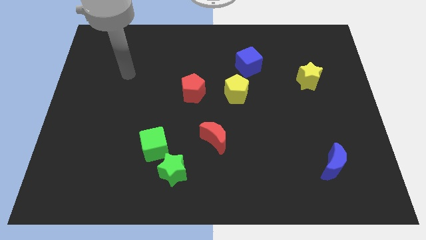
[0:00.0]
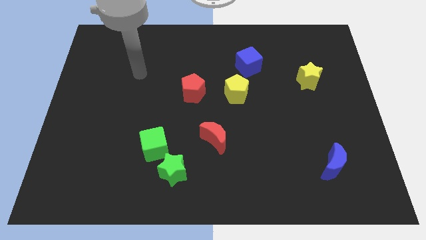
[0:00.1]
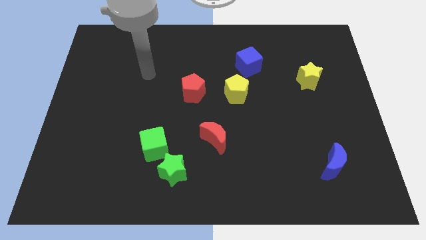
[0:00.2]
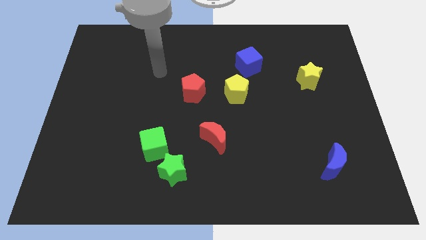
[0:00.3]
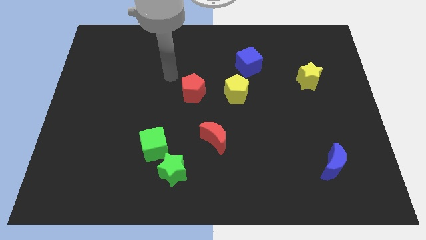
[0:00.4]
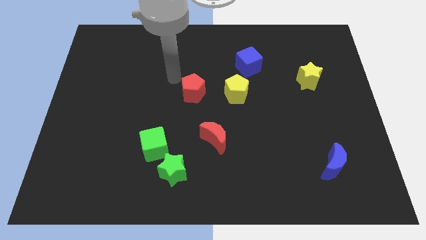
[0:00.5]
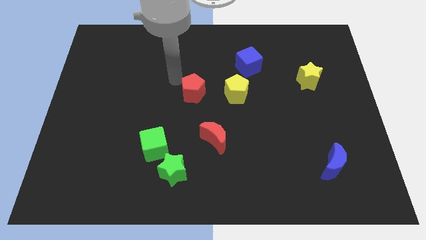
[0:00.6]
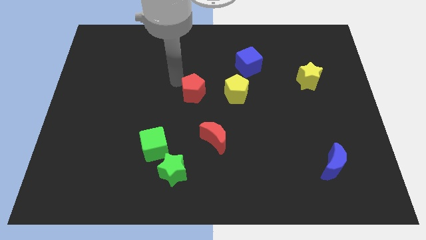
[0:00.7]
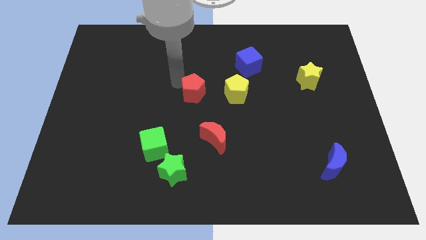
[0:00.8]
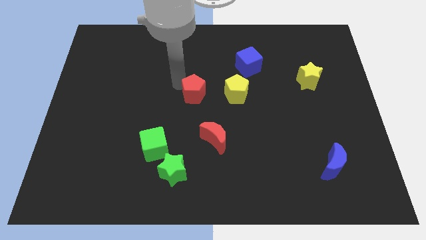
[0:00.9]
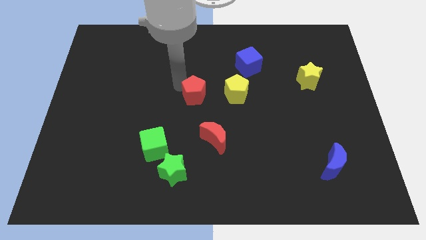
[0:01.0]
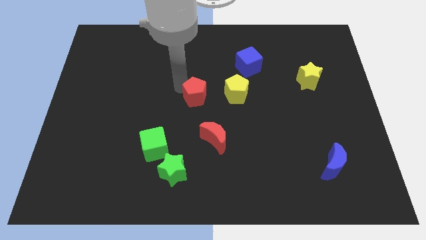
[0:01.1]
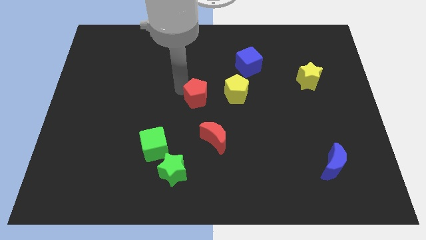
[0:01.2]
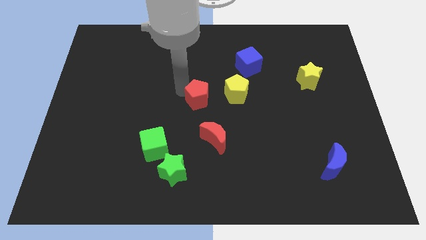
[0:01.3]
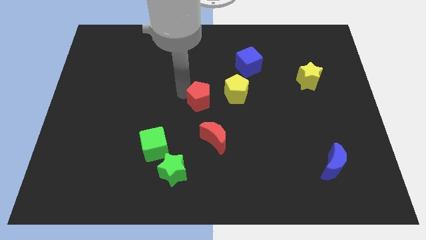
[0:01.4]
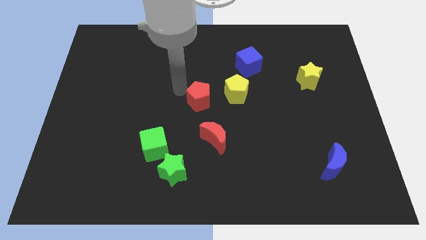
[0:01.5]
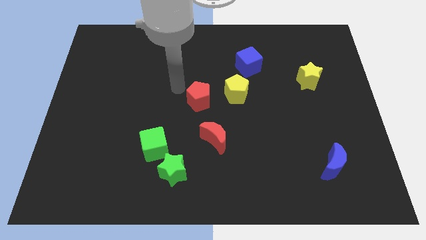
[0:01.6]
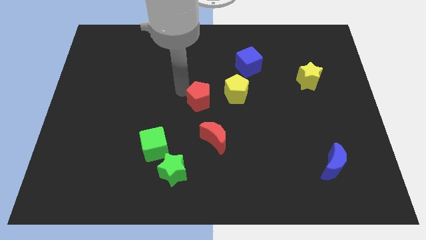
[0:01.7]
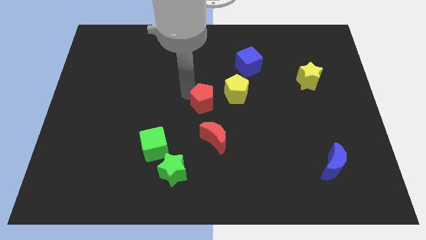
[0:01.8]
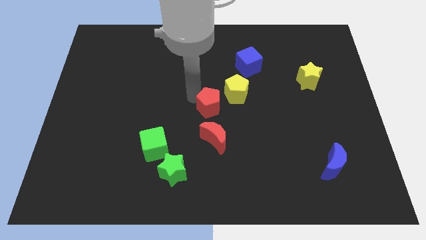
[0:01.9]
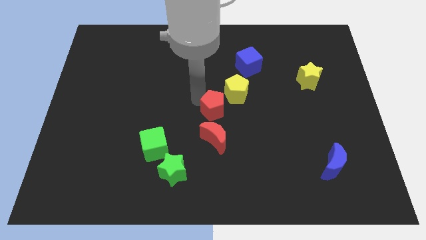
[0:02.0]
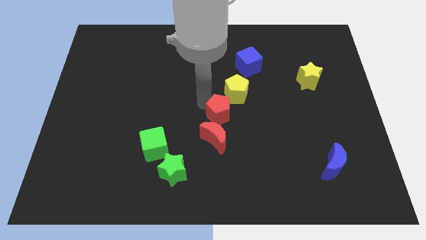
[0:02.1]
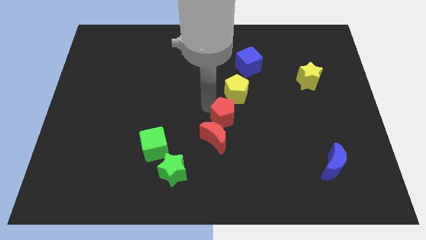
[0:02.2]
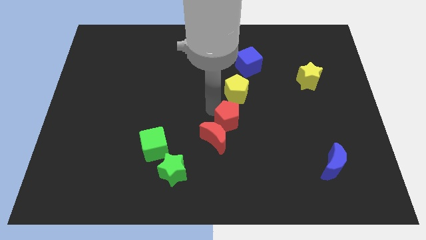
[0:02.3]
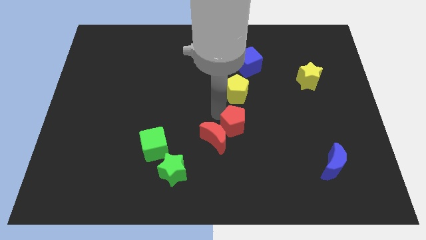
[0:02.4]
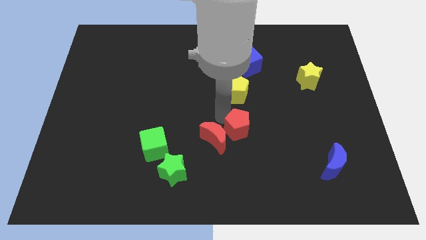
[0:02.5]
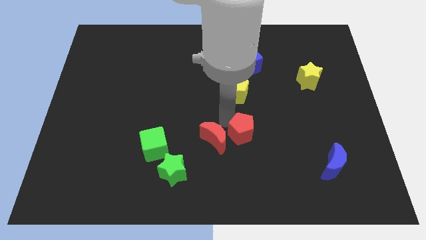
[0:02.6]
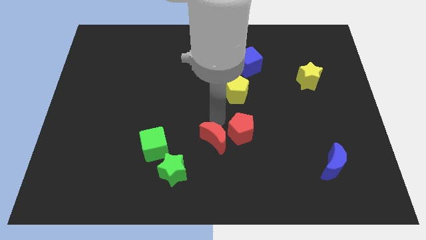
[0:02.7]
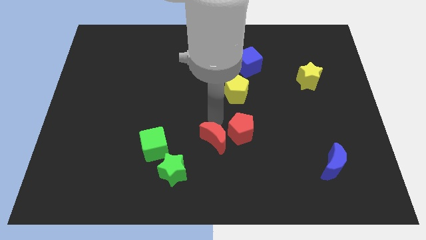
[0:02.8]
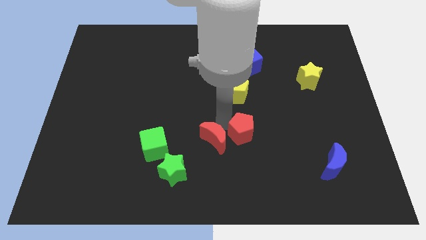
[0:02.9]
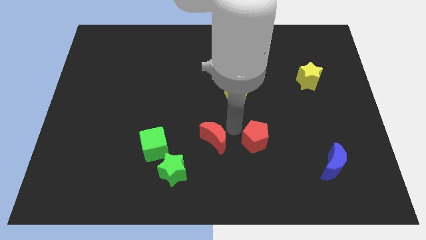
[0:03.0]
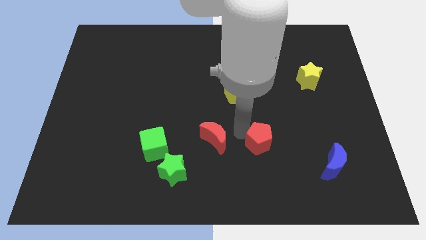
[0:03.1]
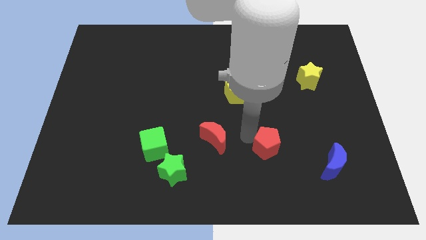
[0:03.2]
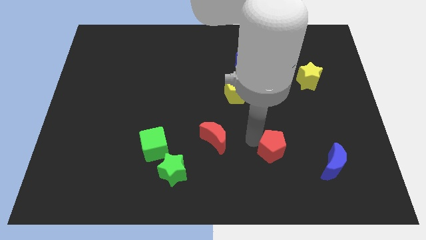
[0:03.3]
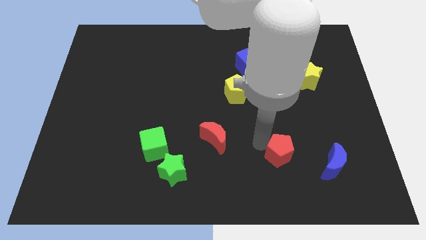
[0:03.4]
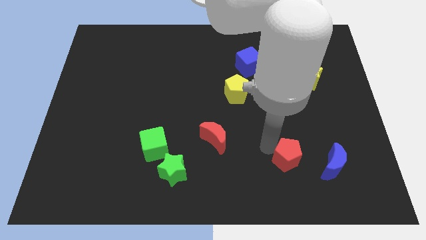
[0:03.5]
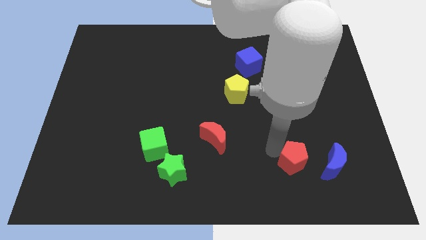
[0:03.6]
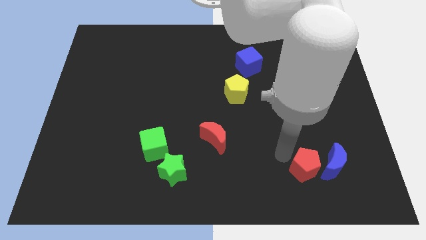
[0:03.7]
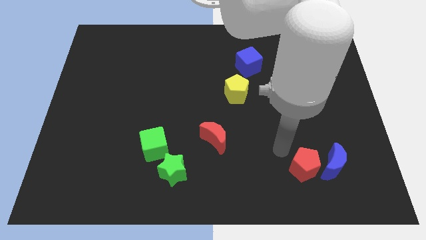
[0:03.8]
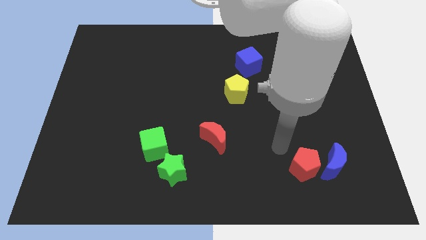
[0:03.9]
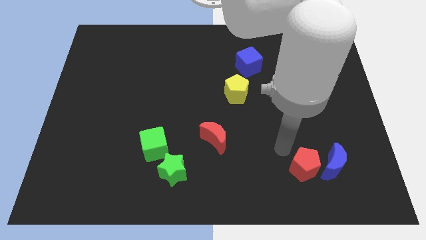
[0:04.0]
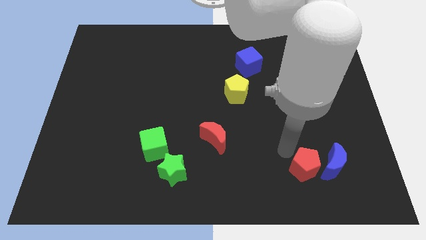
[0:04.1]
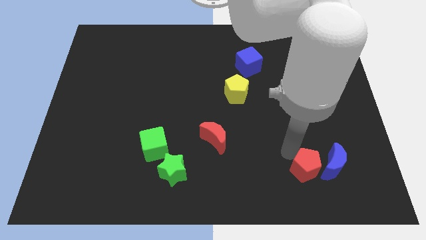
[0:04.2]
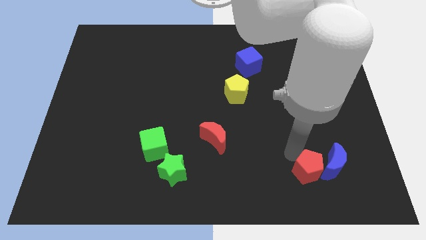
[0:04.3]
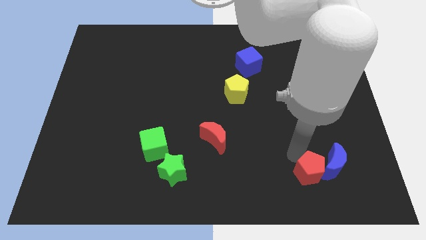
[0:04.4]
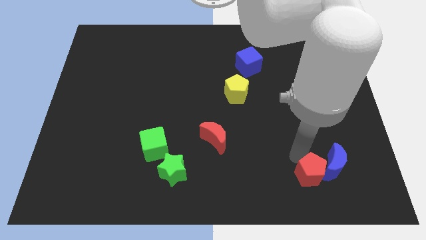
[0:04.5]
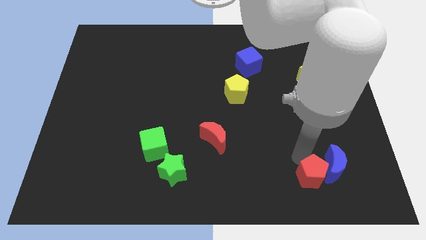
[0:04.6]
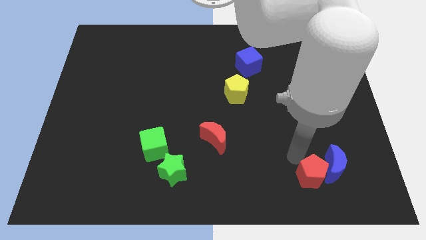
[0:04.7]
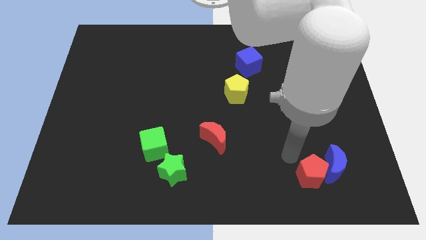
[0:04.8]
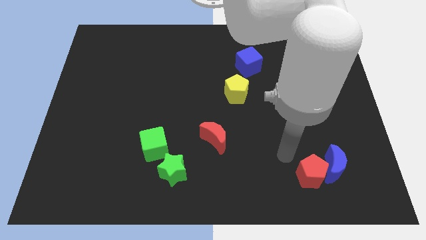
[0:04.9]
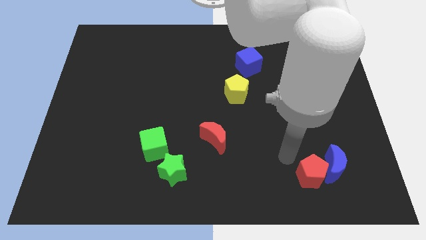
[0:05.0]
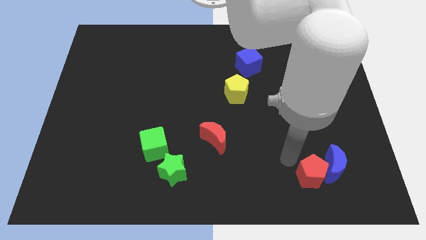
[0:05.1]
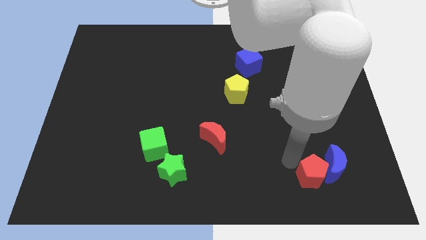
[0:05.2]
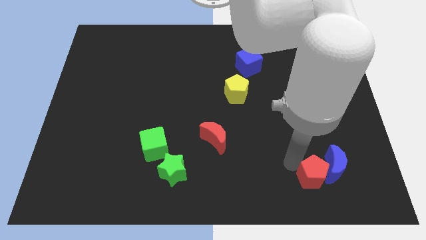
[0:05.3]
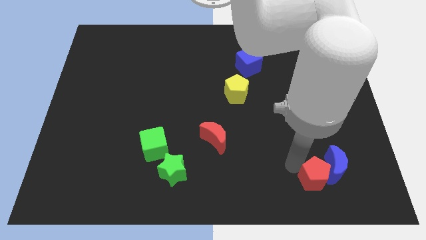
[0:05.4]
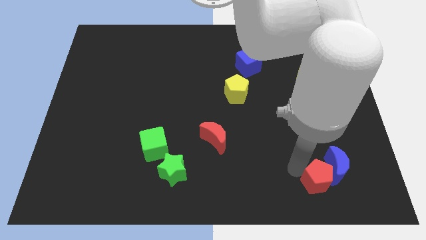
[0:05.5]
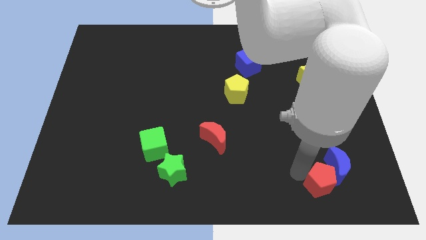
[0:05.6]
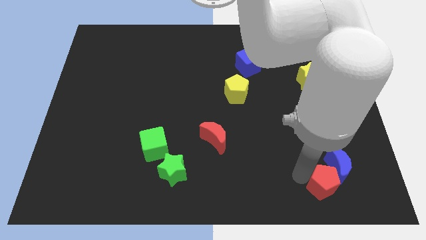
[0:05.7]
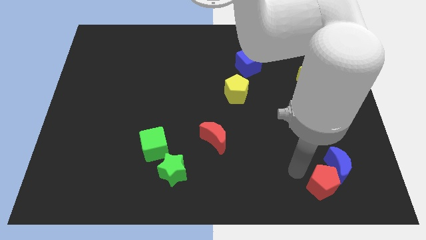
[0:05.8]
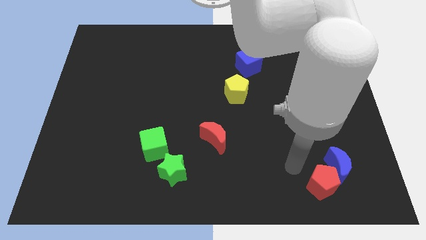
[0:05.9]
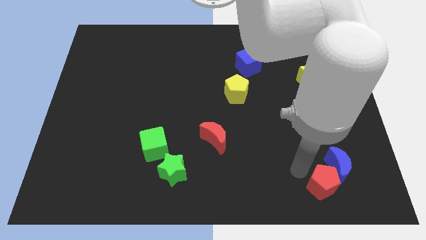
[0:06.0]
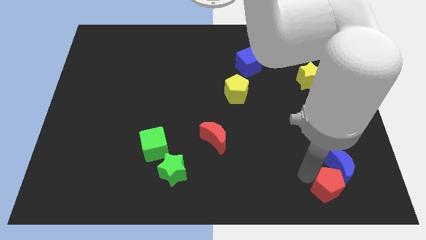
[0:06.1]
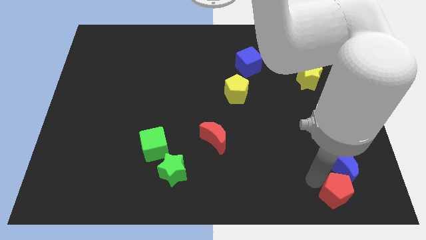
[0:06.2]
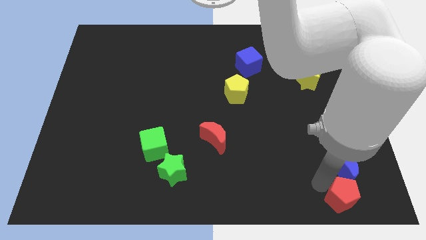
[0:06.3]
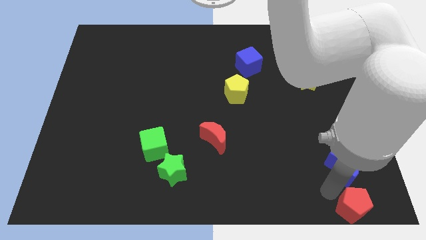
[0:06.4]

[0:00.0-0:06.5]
push the red pentagon to the bottom right corner
